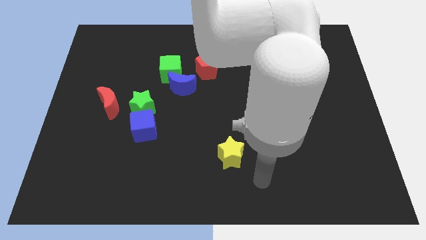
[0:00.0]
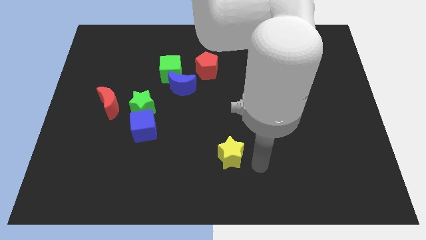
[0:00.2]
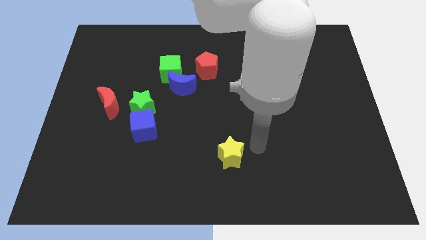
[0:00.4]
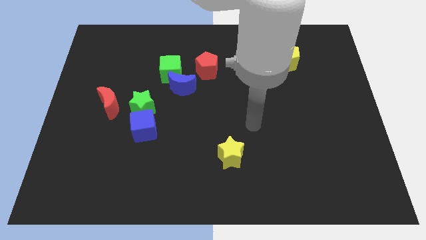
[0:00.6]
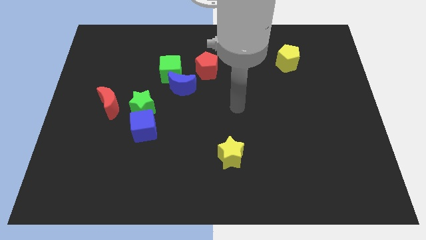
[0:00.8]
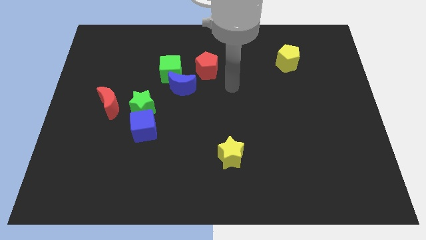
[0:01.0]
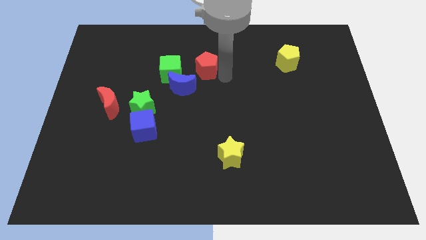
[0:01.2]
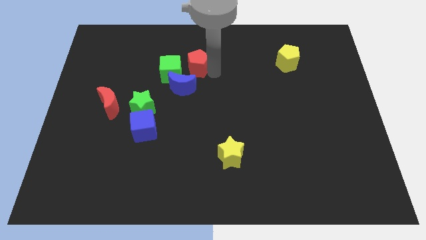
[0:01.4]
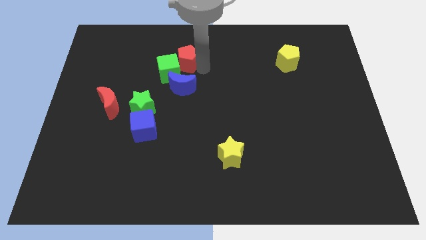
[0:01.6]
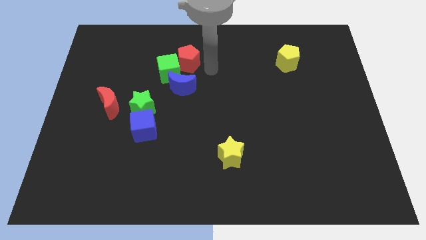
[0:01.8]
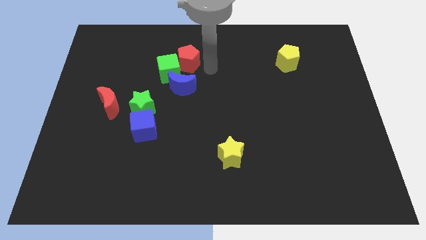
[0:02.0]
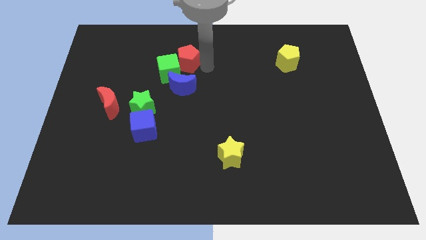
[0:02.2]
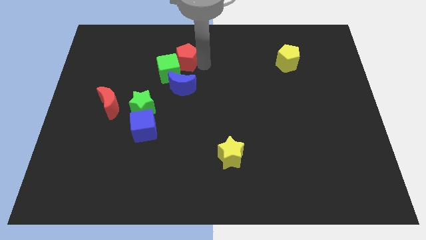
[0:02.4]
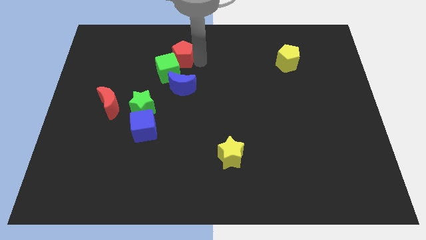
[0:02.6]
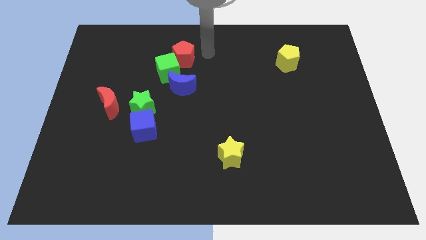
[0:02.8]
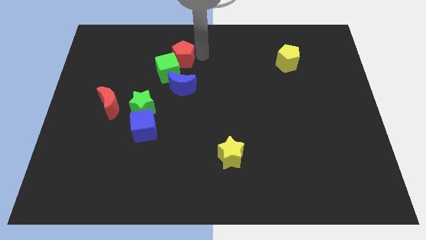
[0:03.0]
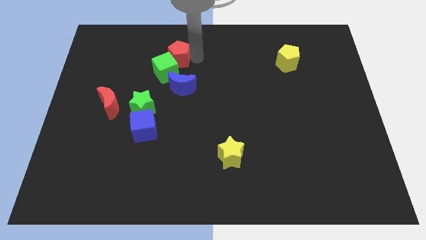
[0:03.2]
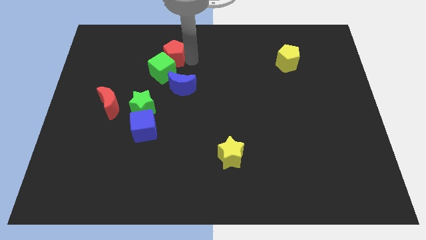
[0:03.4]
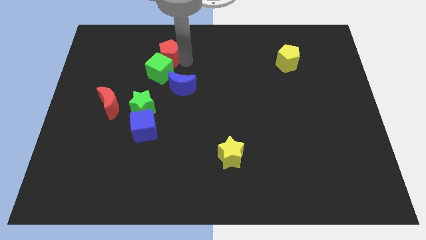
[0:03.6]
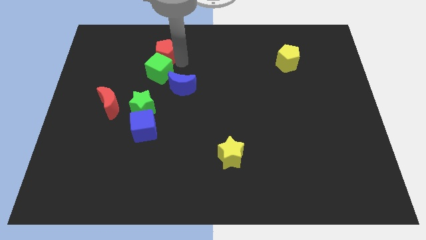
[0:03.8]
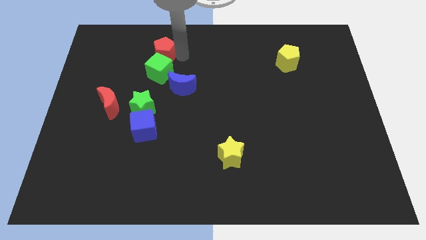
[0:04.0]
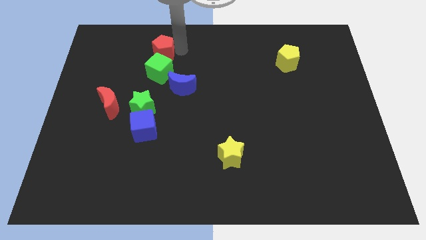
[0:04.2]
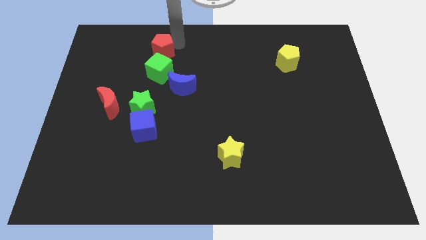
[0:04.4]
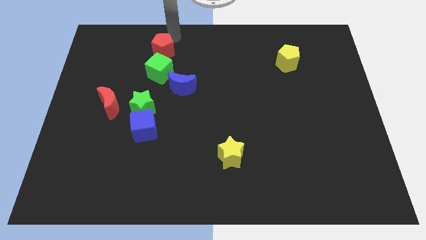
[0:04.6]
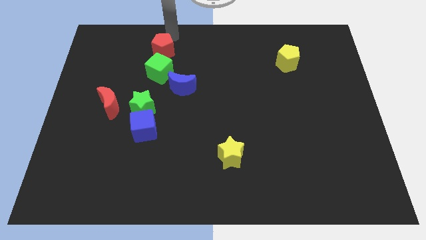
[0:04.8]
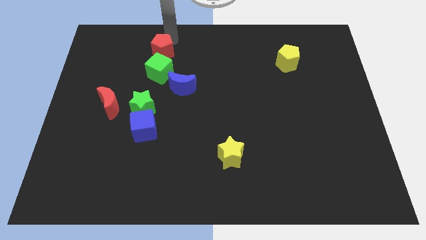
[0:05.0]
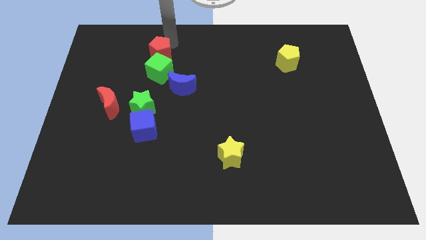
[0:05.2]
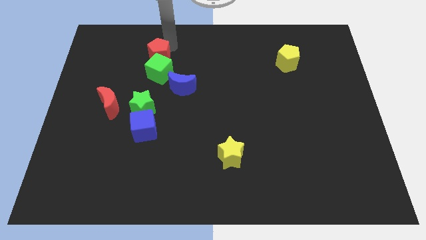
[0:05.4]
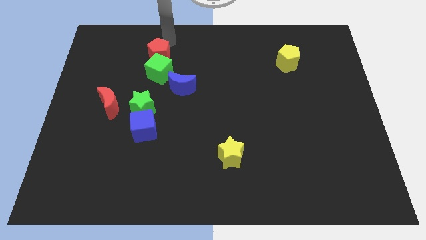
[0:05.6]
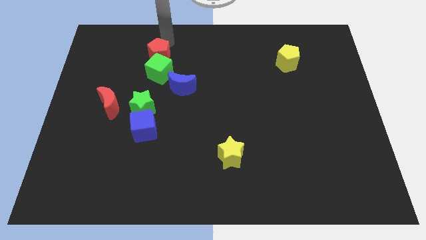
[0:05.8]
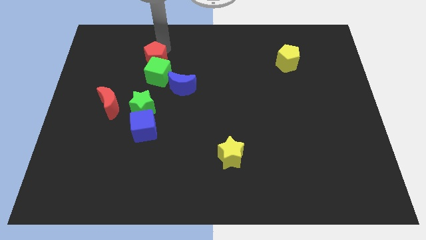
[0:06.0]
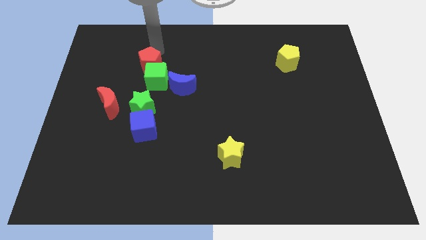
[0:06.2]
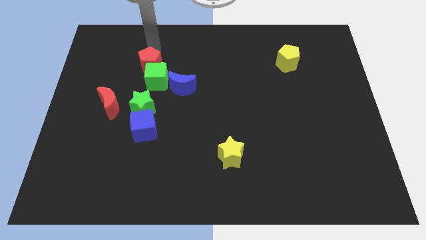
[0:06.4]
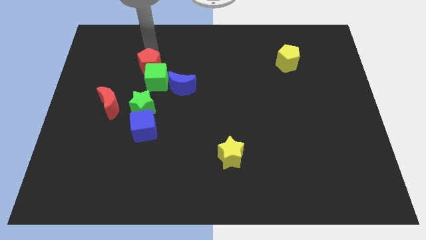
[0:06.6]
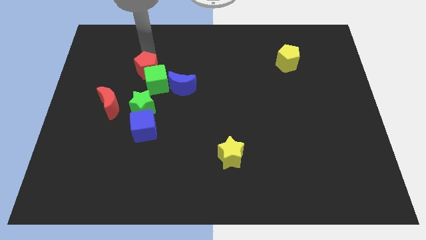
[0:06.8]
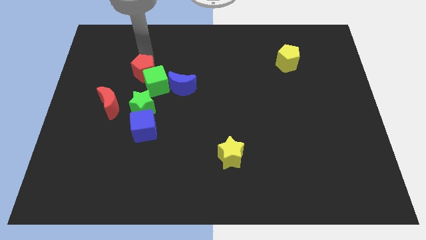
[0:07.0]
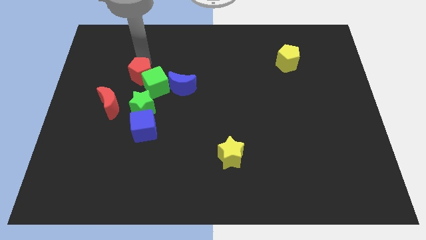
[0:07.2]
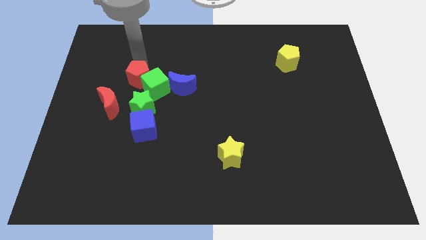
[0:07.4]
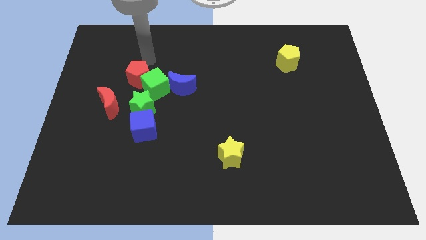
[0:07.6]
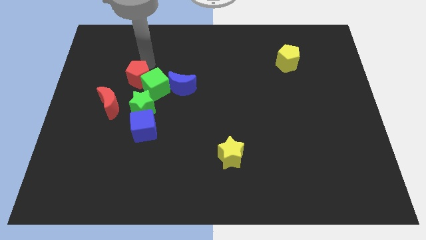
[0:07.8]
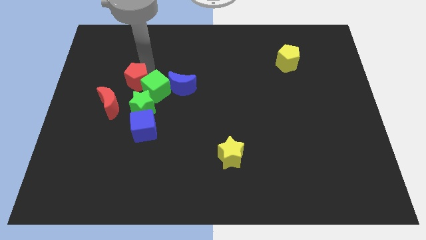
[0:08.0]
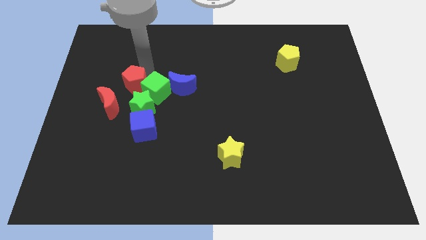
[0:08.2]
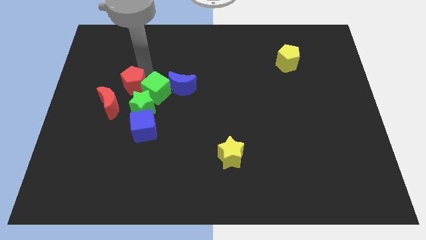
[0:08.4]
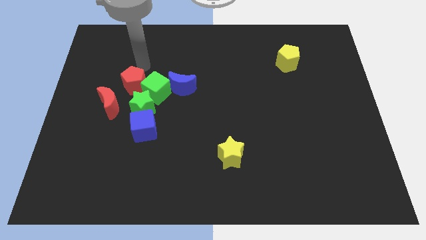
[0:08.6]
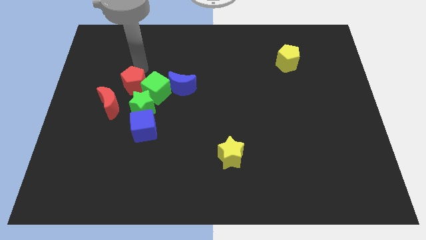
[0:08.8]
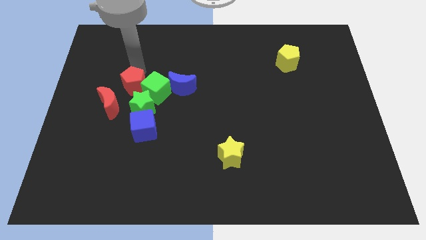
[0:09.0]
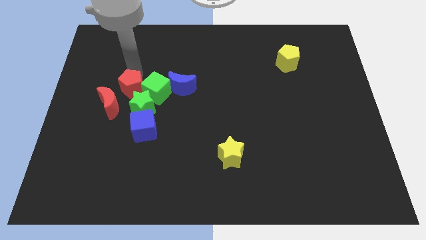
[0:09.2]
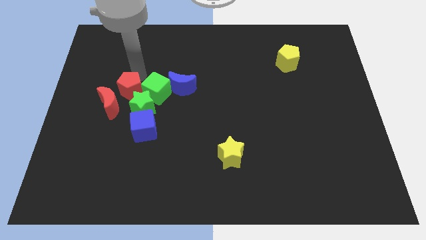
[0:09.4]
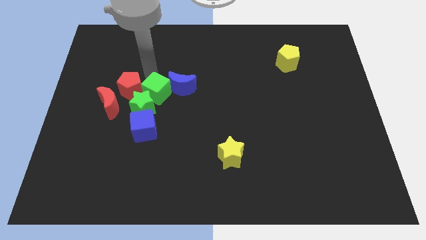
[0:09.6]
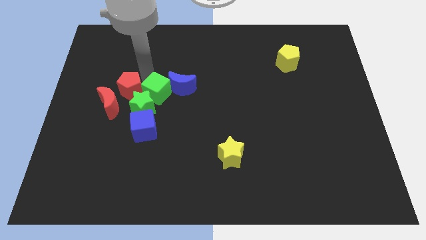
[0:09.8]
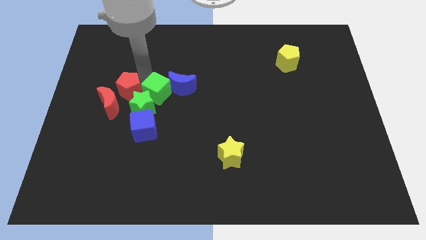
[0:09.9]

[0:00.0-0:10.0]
push the red pentagon to the red moon

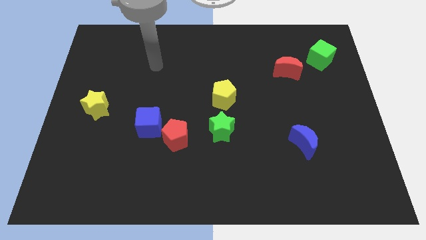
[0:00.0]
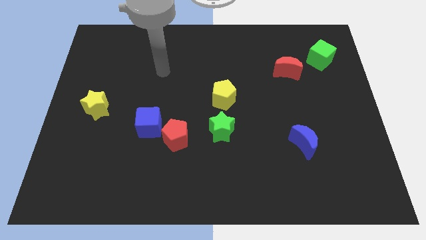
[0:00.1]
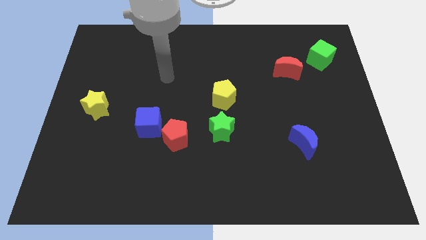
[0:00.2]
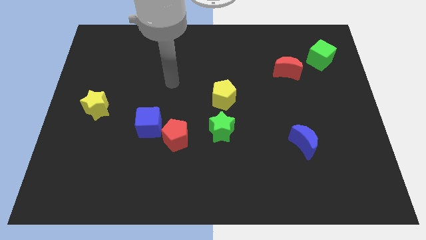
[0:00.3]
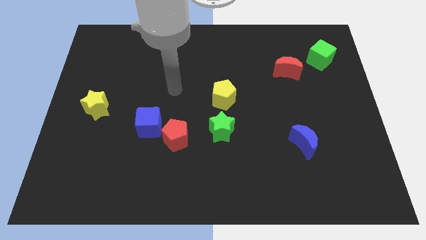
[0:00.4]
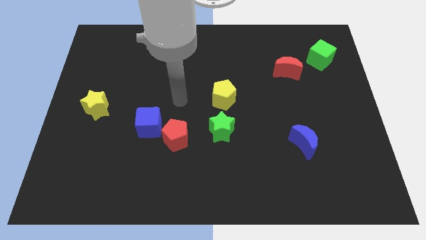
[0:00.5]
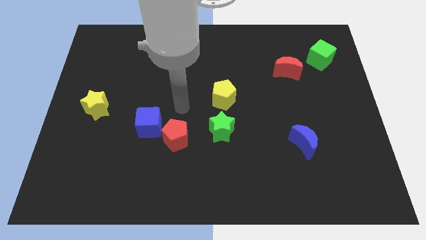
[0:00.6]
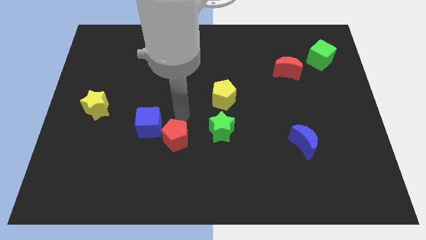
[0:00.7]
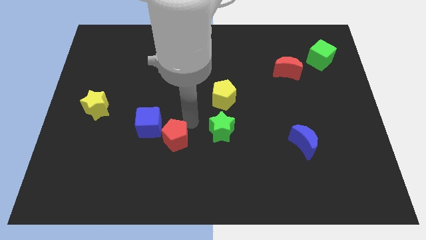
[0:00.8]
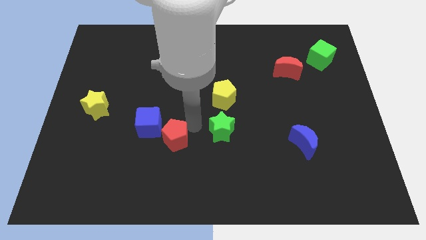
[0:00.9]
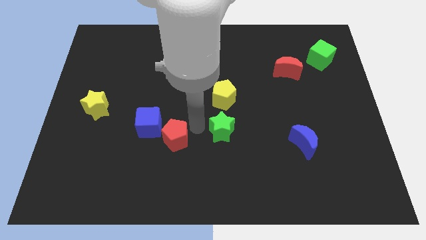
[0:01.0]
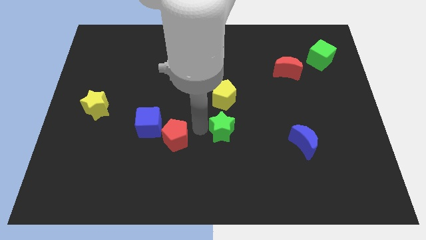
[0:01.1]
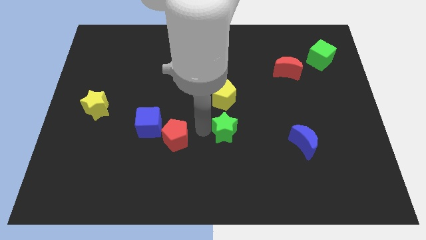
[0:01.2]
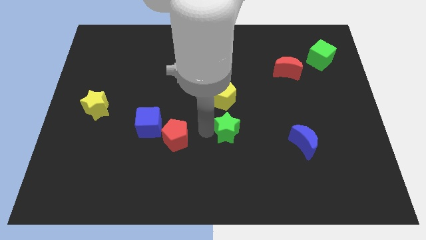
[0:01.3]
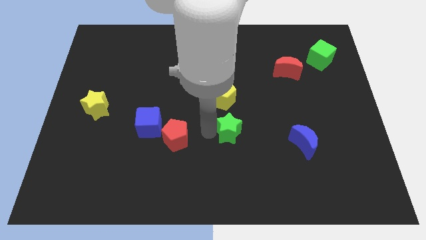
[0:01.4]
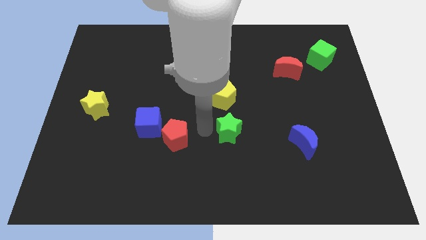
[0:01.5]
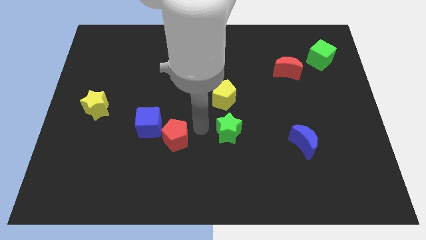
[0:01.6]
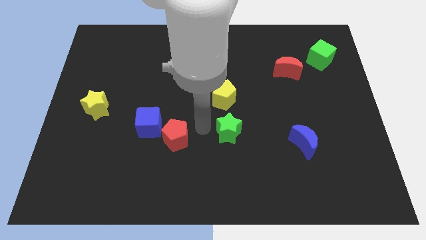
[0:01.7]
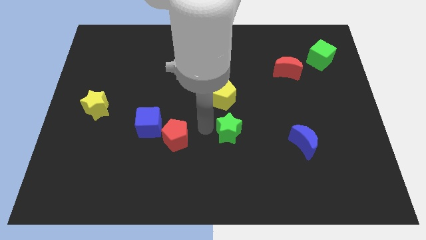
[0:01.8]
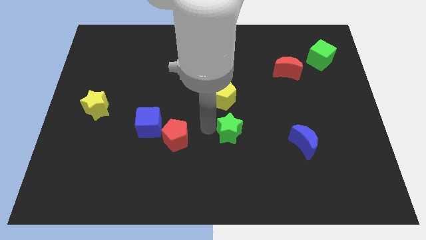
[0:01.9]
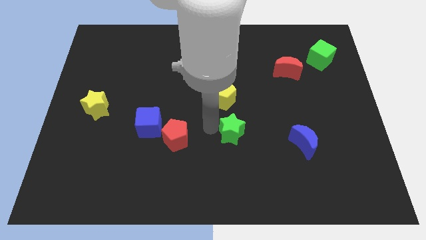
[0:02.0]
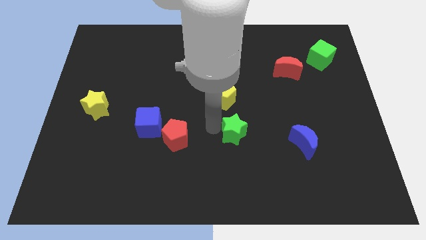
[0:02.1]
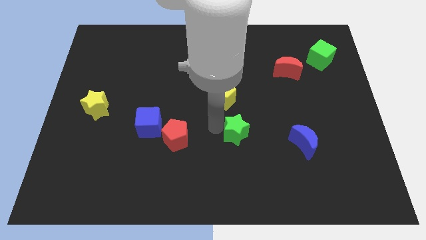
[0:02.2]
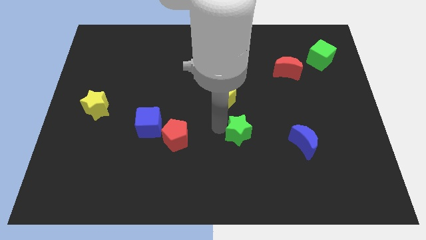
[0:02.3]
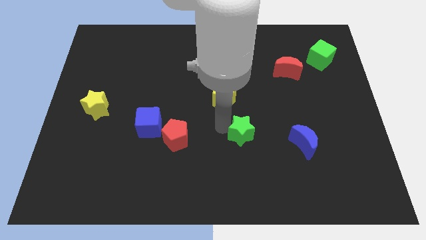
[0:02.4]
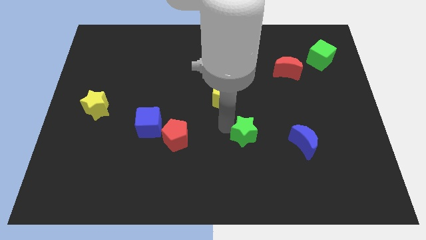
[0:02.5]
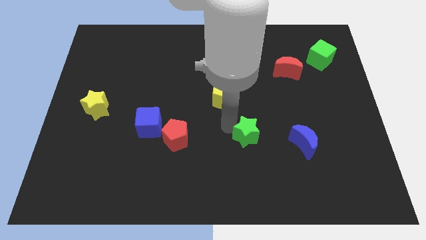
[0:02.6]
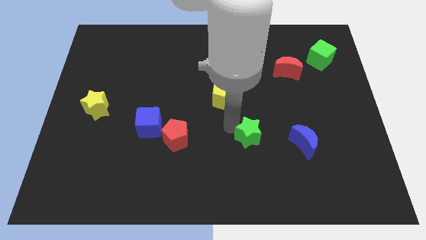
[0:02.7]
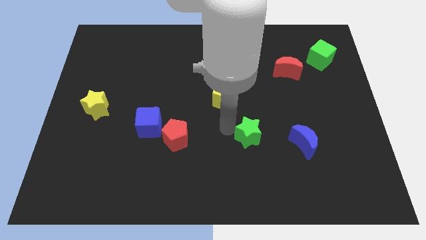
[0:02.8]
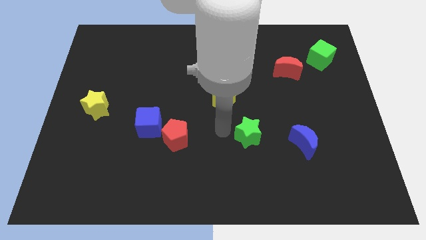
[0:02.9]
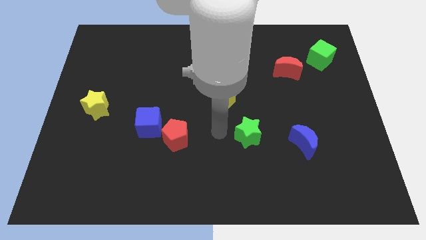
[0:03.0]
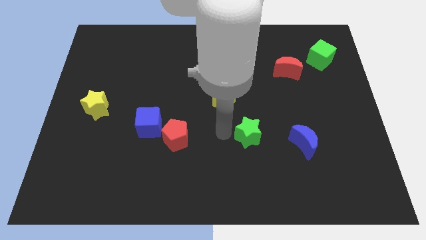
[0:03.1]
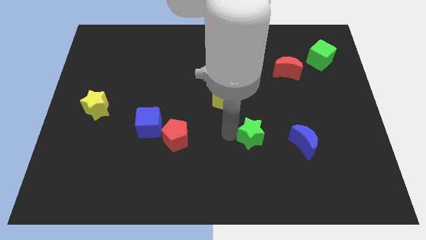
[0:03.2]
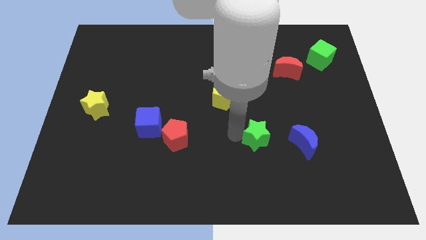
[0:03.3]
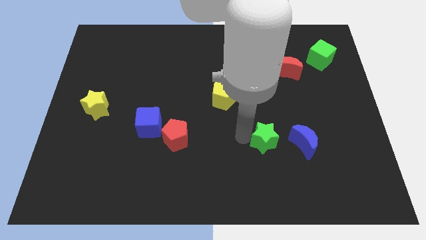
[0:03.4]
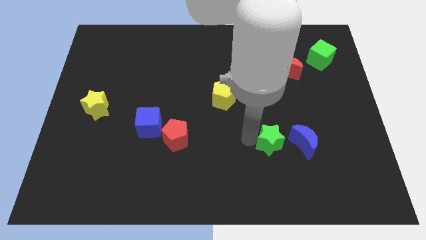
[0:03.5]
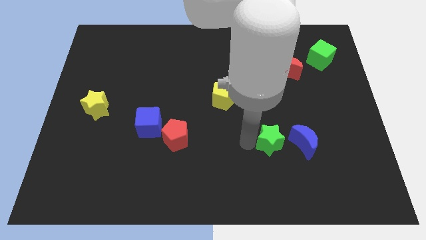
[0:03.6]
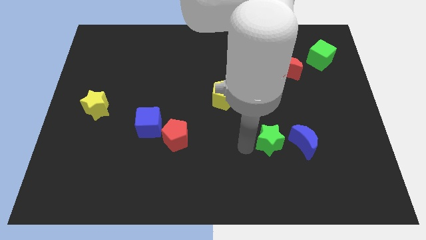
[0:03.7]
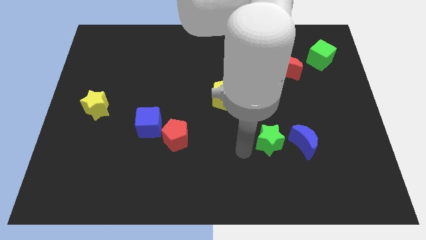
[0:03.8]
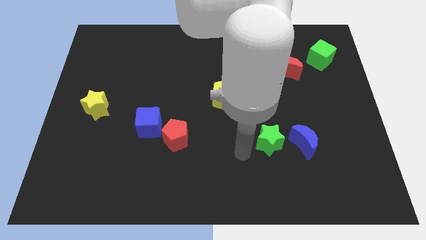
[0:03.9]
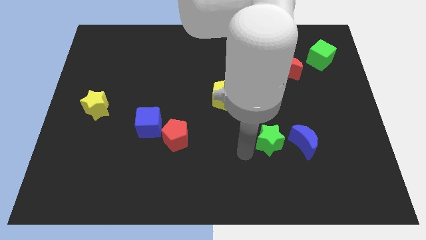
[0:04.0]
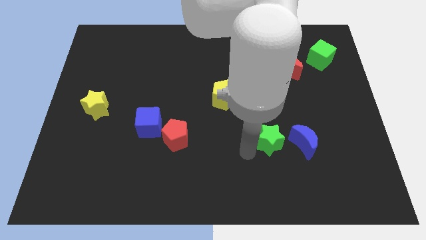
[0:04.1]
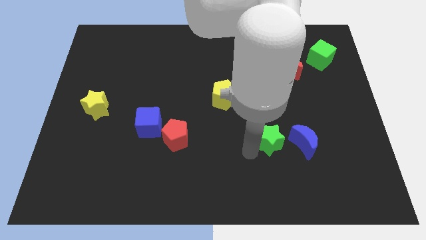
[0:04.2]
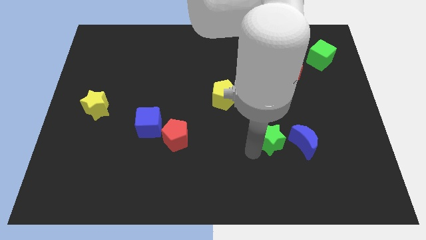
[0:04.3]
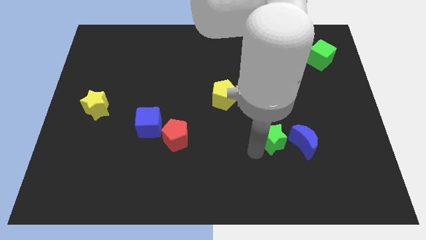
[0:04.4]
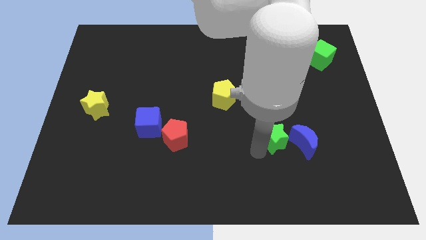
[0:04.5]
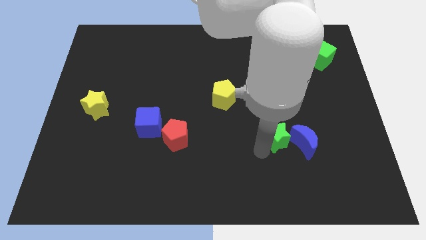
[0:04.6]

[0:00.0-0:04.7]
put the green star close to the blue moon
